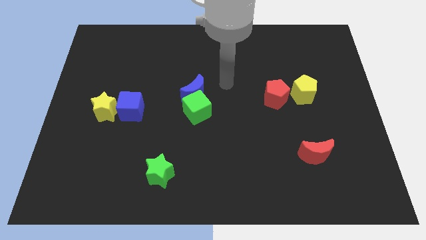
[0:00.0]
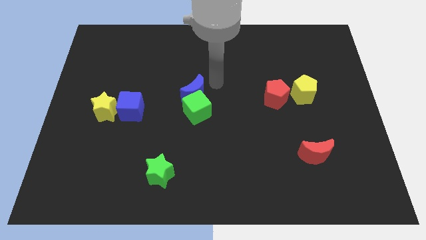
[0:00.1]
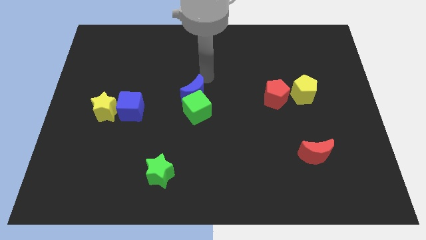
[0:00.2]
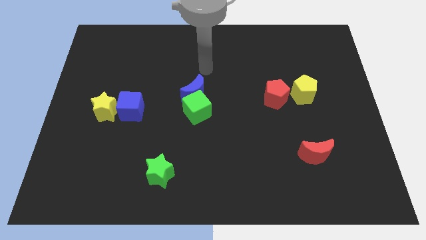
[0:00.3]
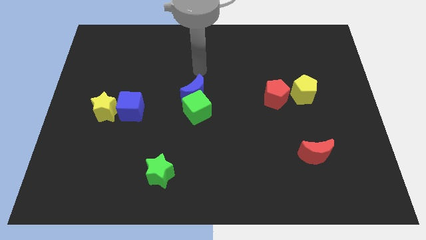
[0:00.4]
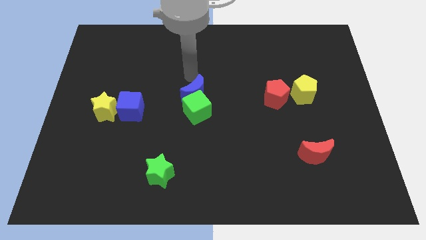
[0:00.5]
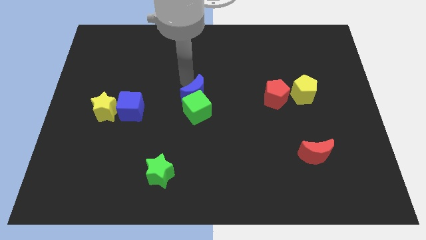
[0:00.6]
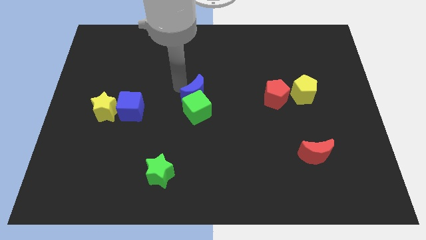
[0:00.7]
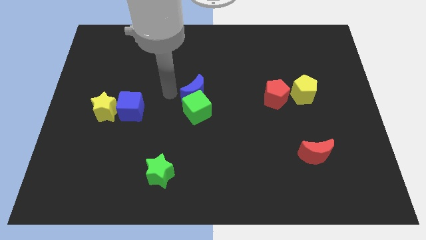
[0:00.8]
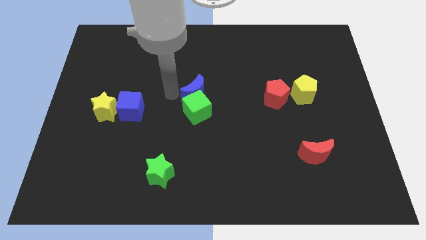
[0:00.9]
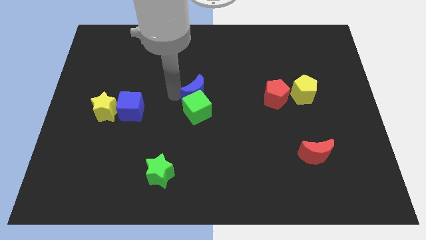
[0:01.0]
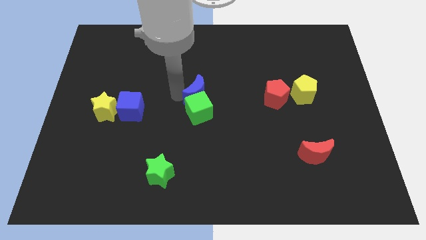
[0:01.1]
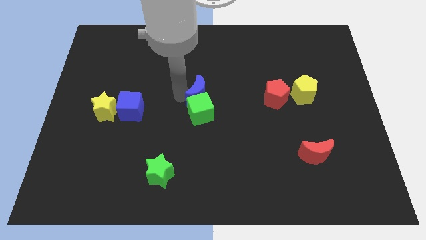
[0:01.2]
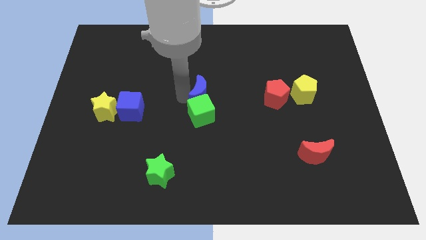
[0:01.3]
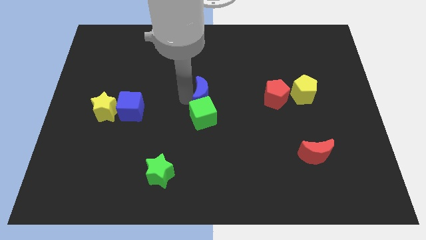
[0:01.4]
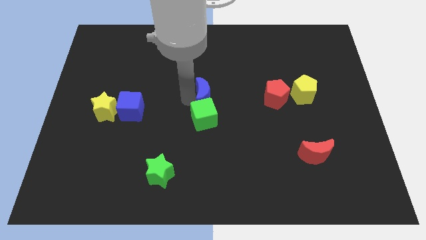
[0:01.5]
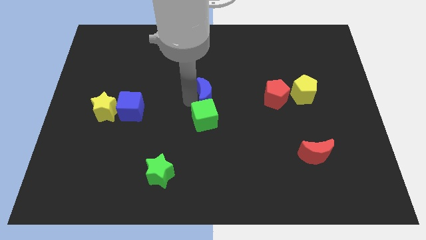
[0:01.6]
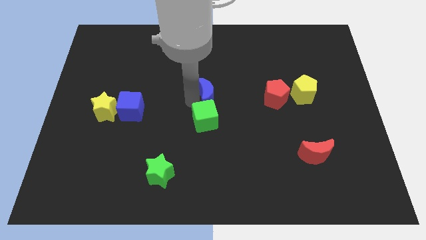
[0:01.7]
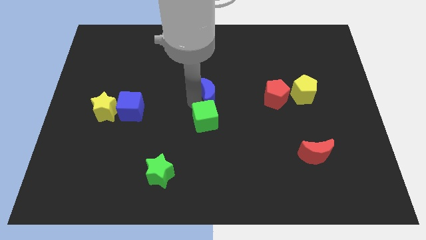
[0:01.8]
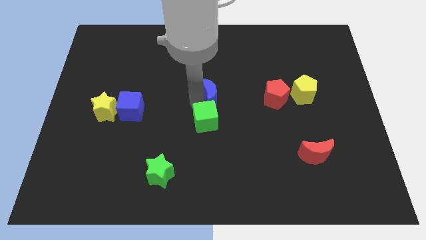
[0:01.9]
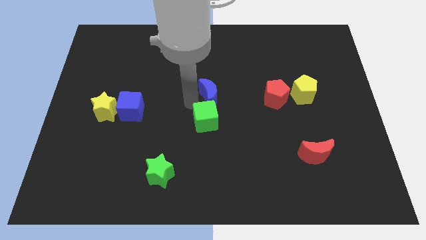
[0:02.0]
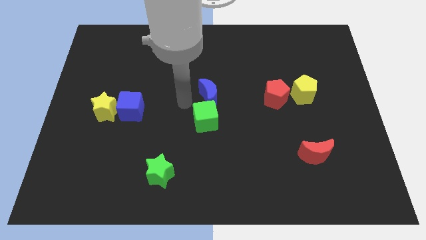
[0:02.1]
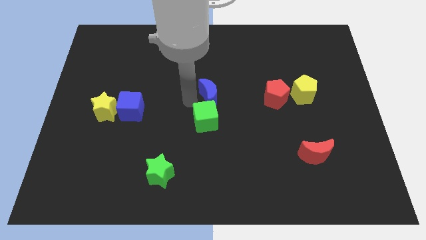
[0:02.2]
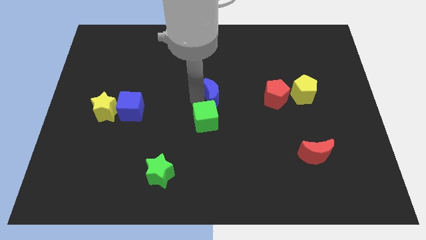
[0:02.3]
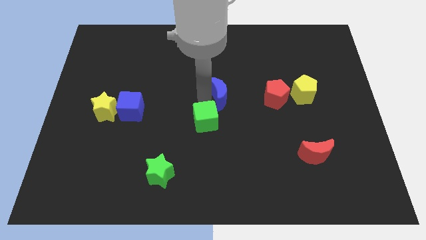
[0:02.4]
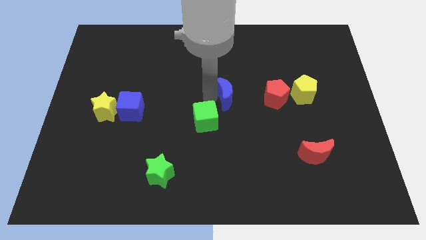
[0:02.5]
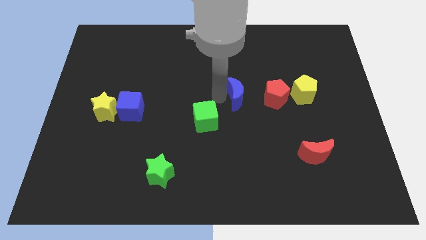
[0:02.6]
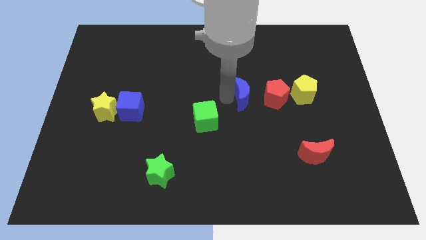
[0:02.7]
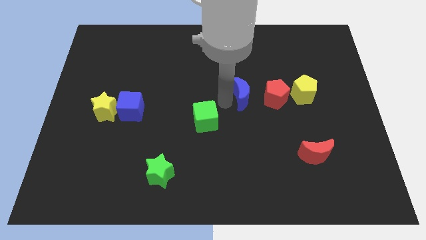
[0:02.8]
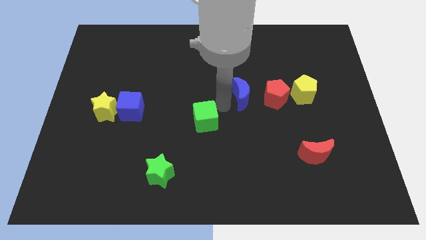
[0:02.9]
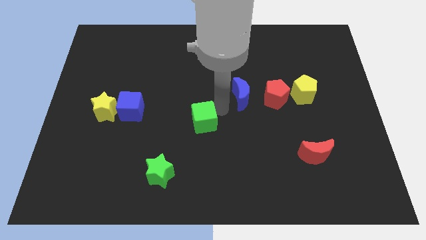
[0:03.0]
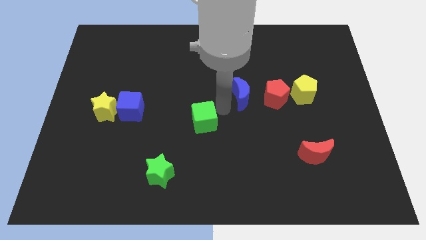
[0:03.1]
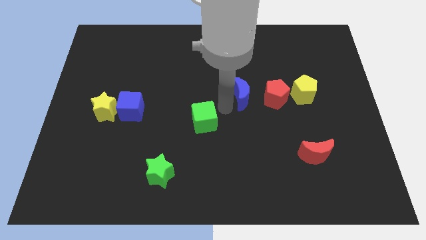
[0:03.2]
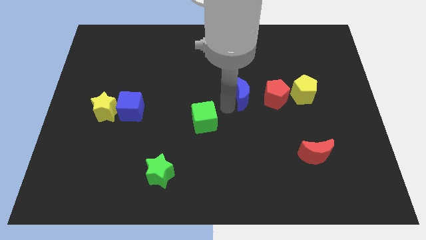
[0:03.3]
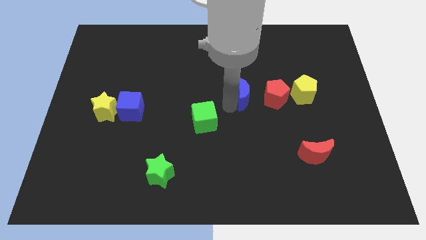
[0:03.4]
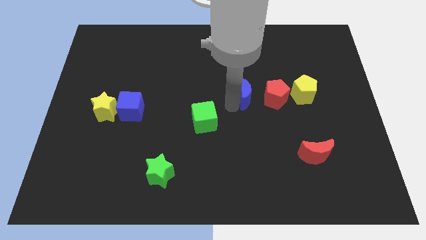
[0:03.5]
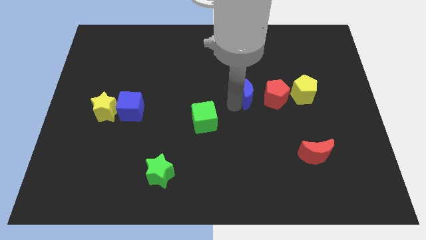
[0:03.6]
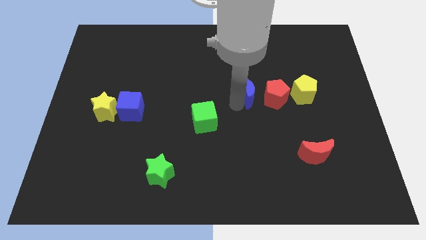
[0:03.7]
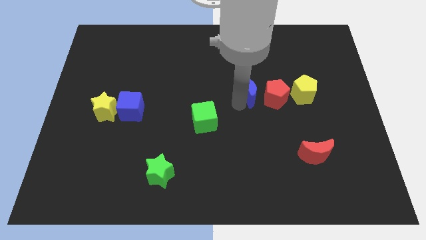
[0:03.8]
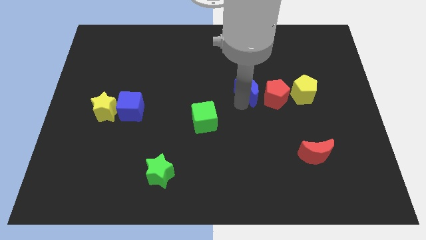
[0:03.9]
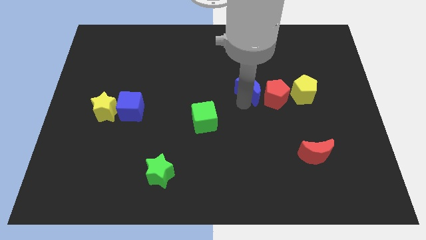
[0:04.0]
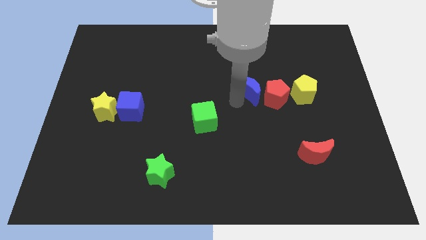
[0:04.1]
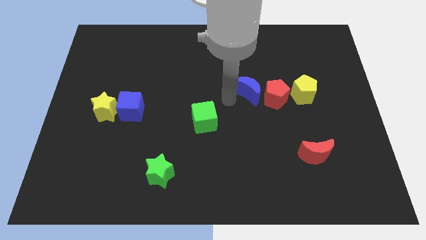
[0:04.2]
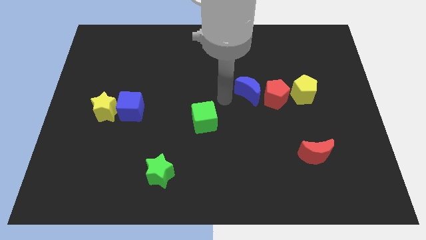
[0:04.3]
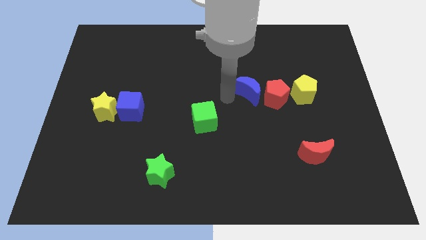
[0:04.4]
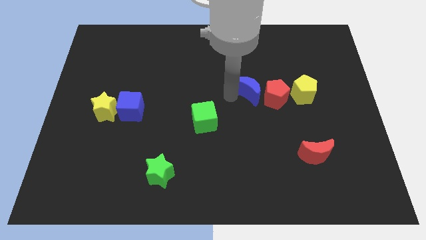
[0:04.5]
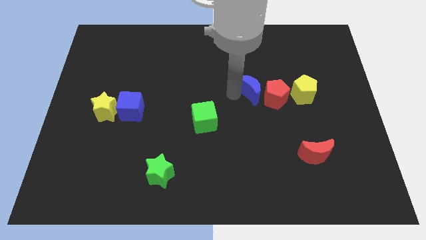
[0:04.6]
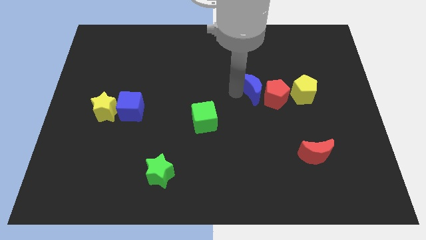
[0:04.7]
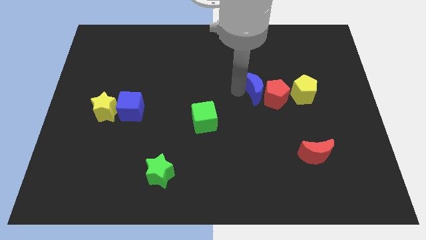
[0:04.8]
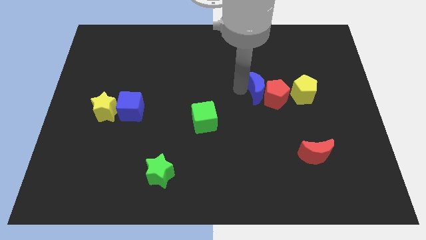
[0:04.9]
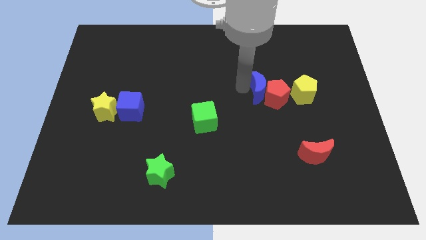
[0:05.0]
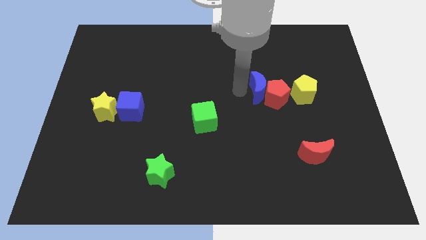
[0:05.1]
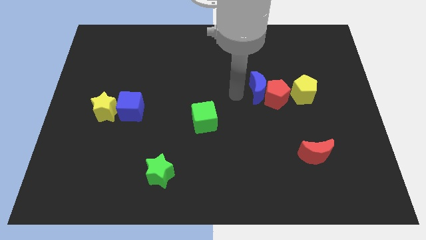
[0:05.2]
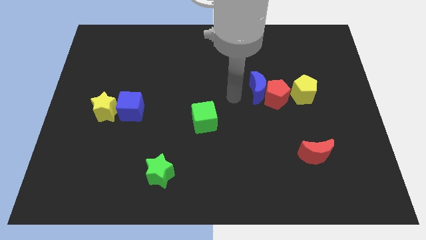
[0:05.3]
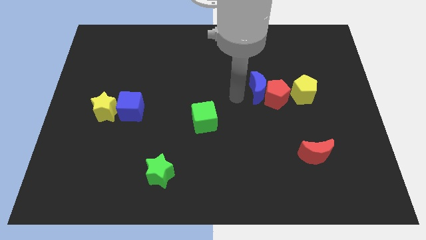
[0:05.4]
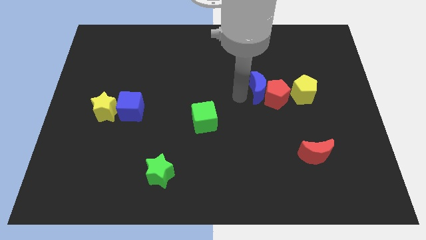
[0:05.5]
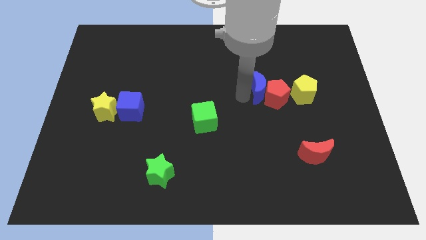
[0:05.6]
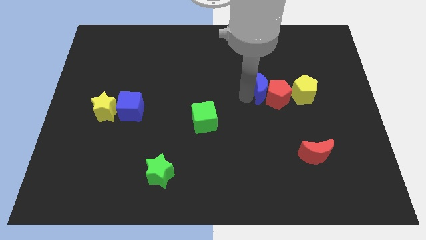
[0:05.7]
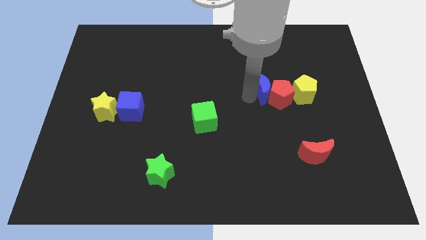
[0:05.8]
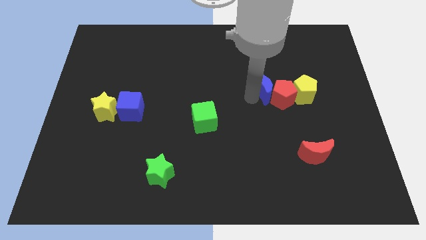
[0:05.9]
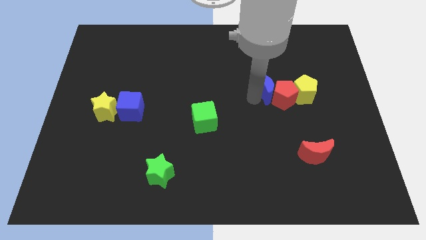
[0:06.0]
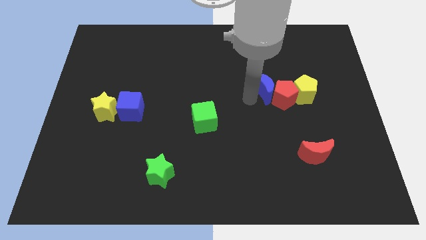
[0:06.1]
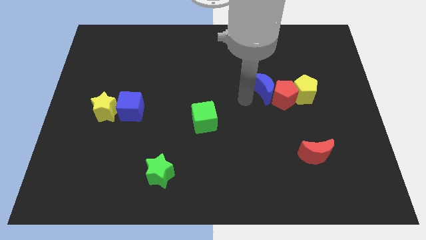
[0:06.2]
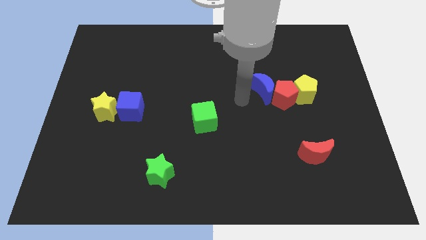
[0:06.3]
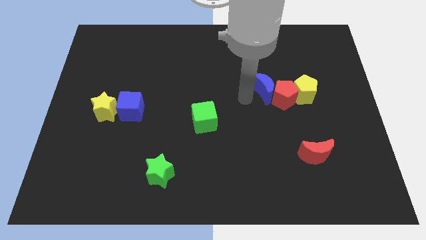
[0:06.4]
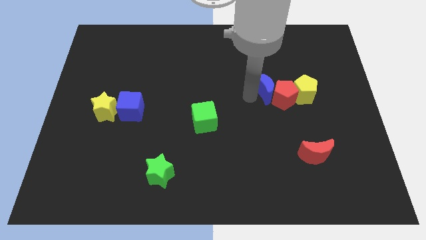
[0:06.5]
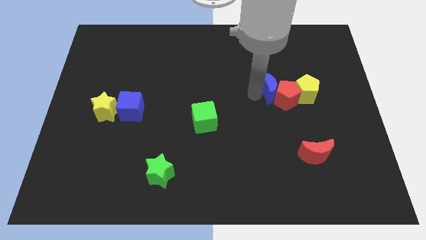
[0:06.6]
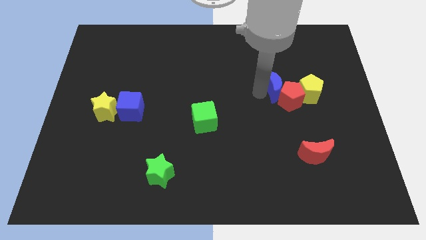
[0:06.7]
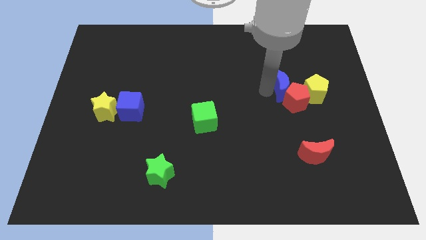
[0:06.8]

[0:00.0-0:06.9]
slide the blue moon to the right

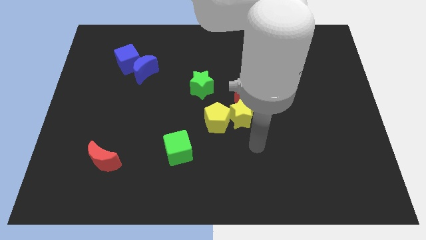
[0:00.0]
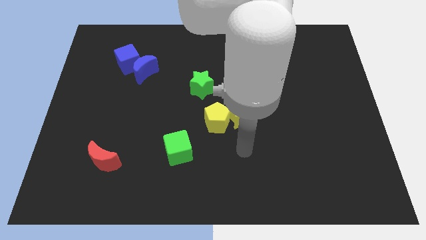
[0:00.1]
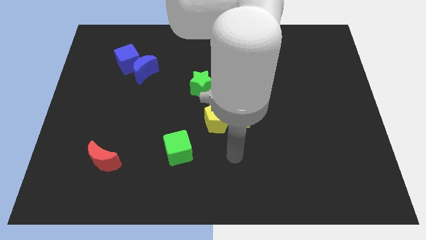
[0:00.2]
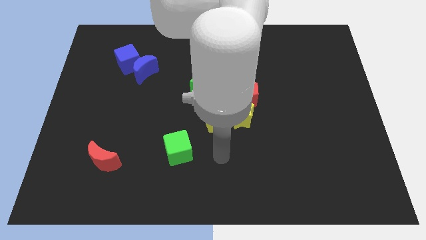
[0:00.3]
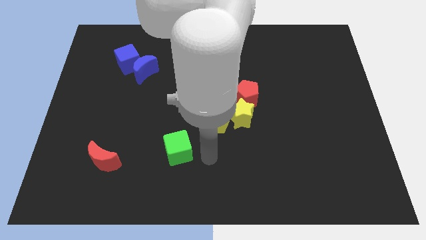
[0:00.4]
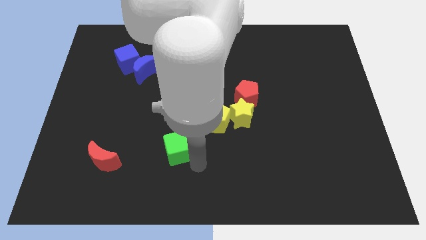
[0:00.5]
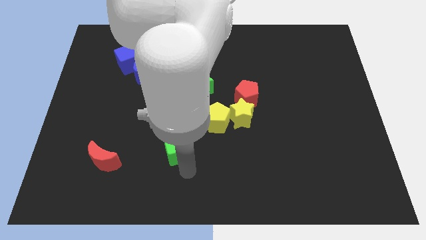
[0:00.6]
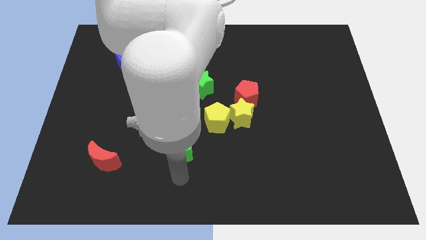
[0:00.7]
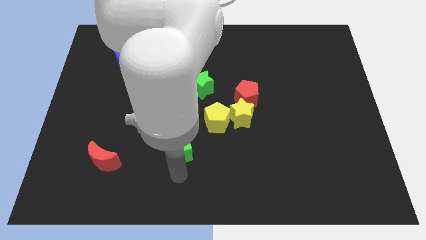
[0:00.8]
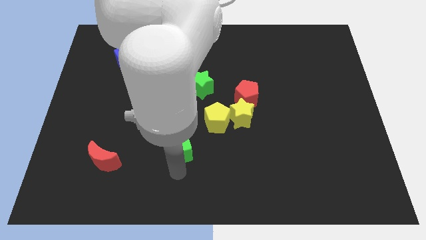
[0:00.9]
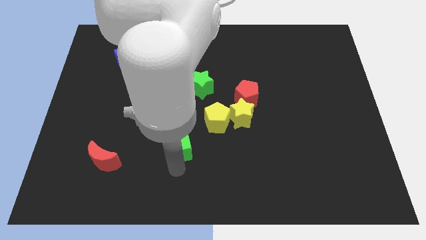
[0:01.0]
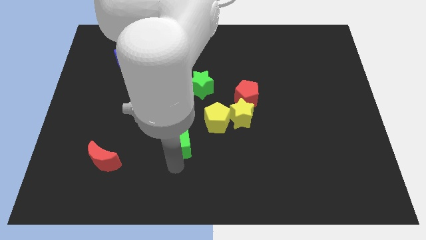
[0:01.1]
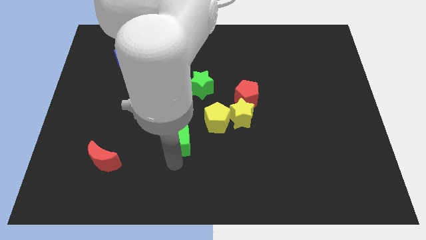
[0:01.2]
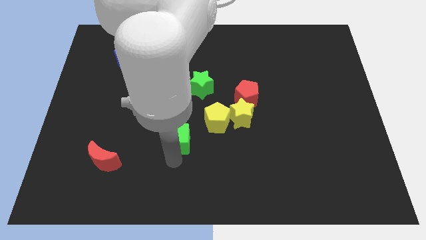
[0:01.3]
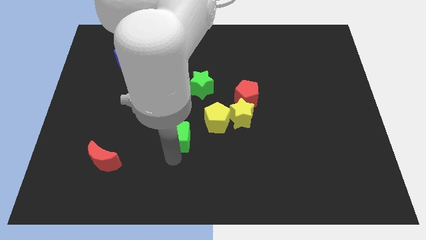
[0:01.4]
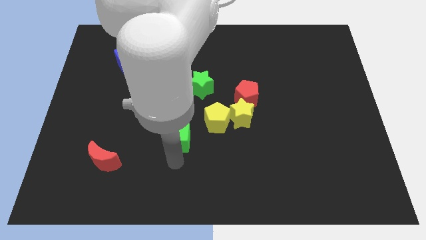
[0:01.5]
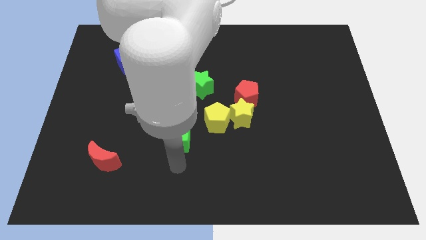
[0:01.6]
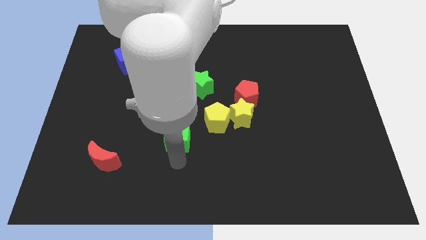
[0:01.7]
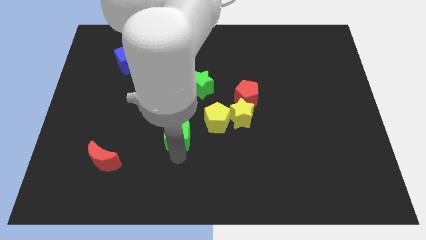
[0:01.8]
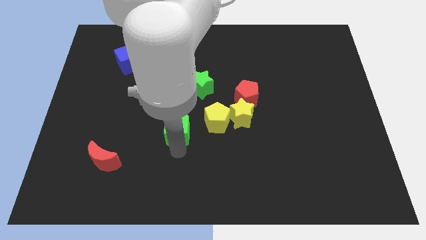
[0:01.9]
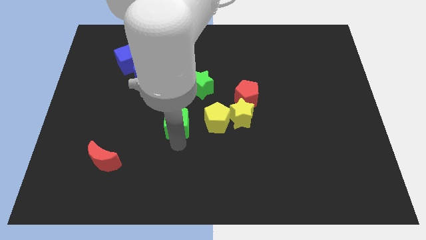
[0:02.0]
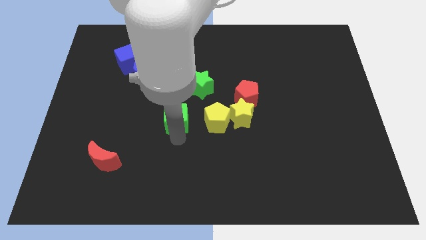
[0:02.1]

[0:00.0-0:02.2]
move the green cube up a little bit
